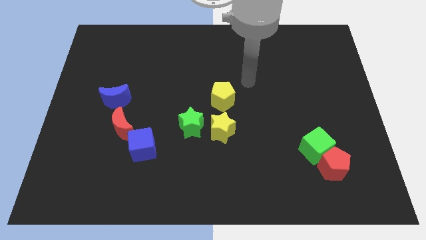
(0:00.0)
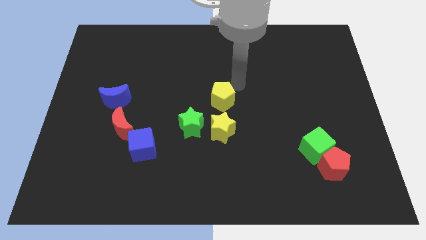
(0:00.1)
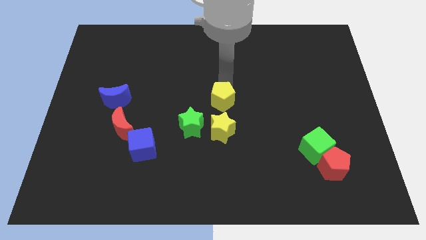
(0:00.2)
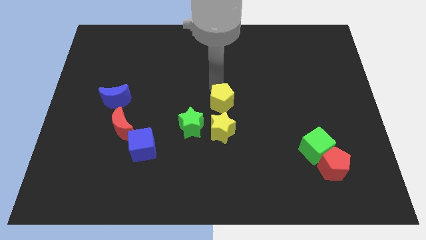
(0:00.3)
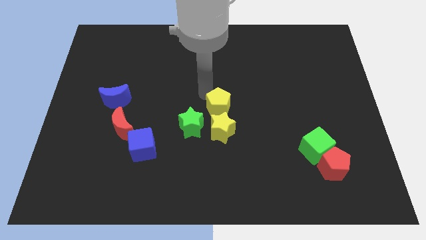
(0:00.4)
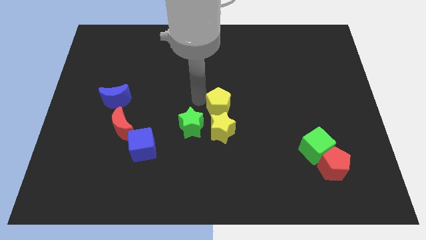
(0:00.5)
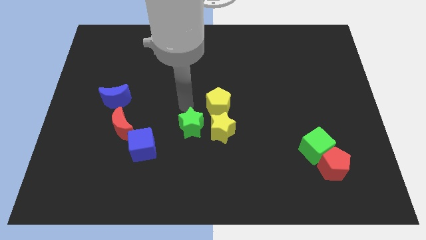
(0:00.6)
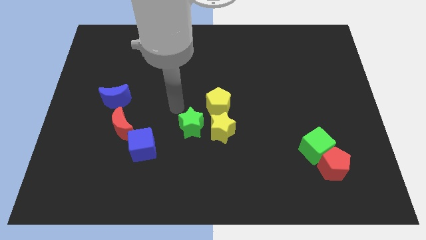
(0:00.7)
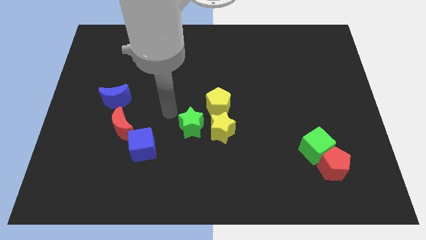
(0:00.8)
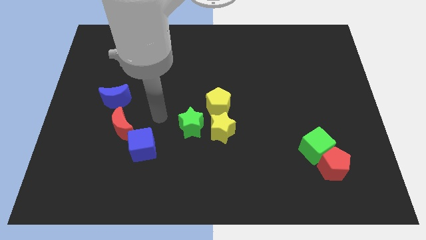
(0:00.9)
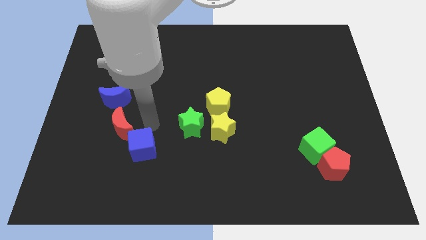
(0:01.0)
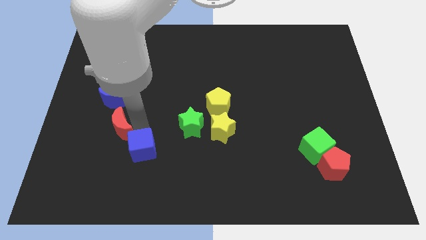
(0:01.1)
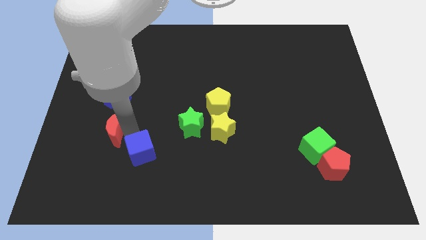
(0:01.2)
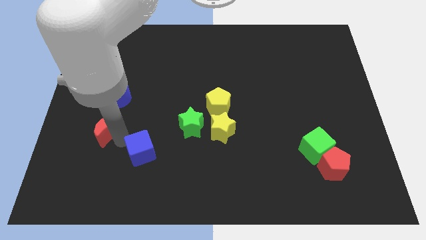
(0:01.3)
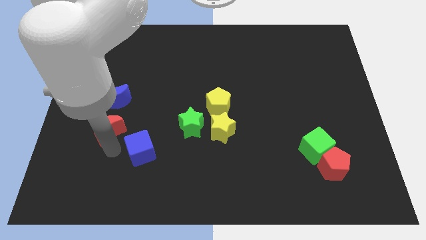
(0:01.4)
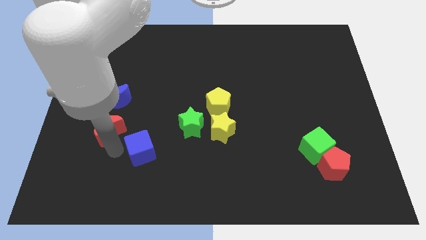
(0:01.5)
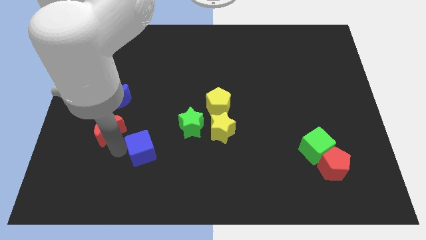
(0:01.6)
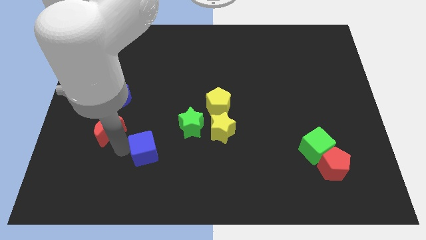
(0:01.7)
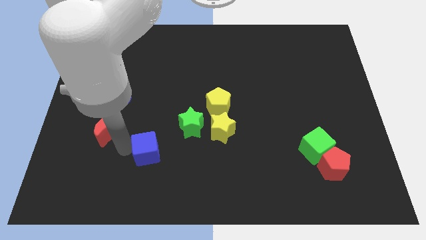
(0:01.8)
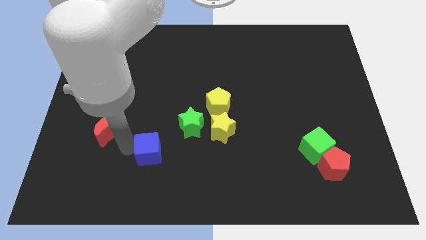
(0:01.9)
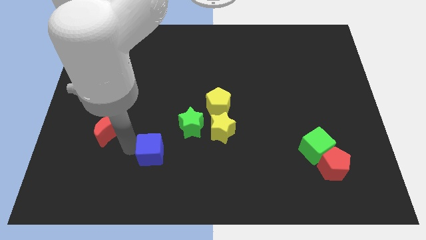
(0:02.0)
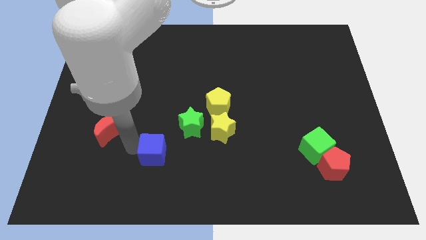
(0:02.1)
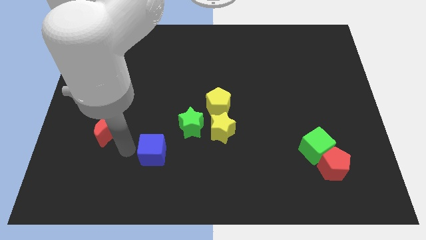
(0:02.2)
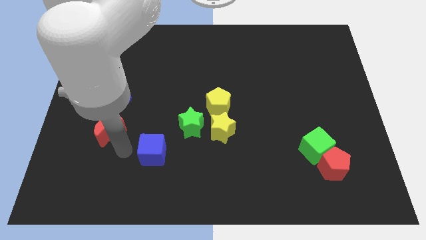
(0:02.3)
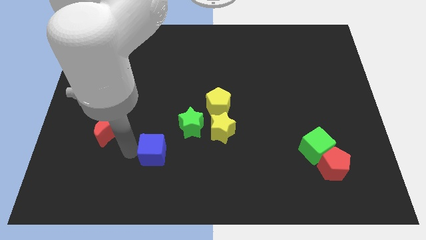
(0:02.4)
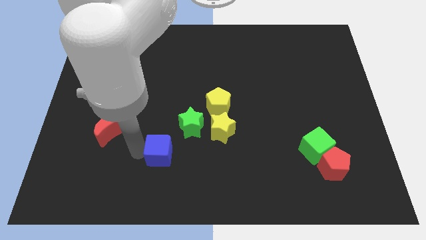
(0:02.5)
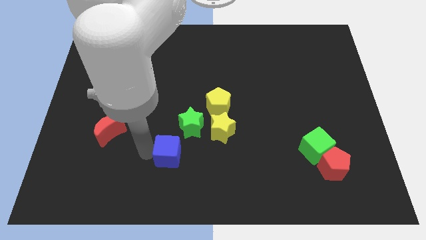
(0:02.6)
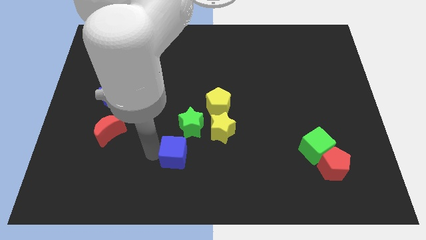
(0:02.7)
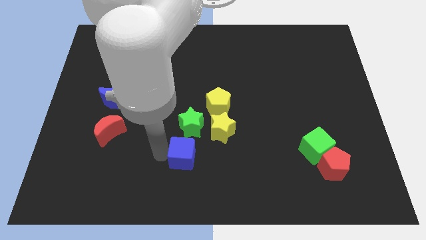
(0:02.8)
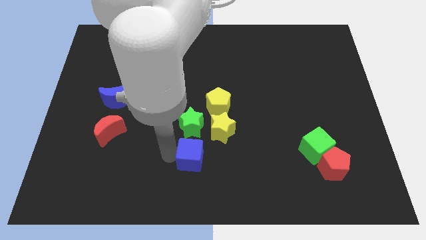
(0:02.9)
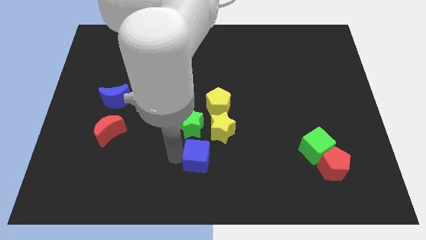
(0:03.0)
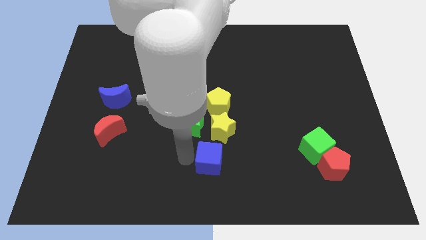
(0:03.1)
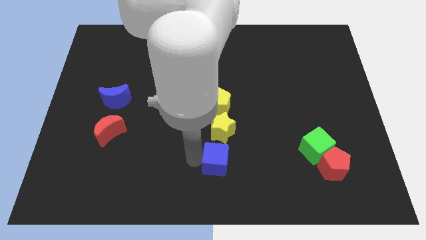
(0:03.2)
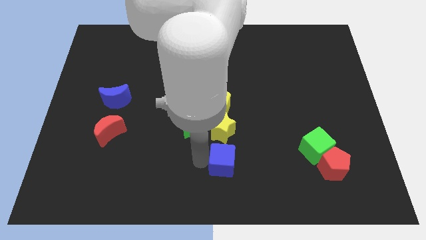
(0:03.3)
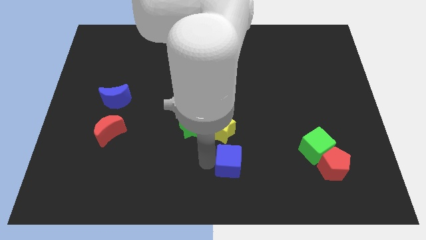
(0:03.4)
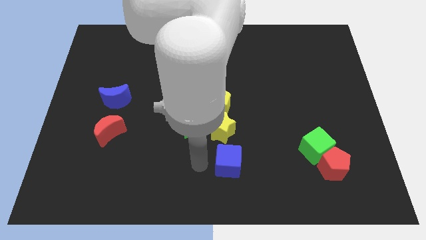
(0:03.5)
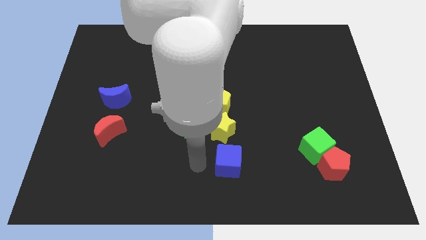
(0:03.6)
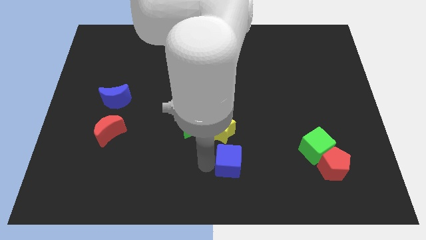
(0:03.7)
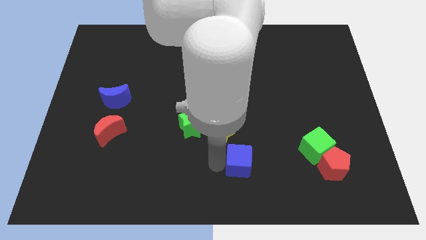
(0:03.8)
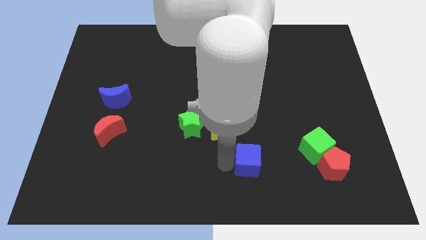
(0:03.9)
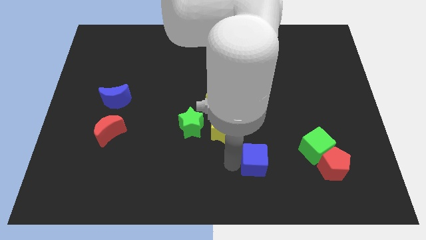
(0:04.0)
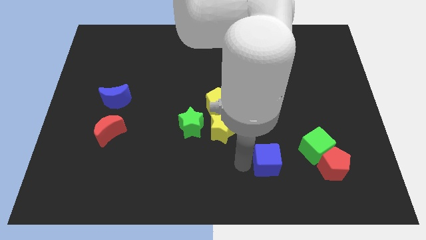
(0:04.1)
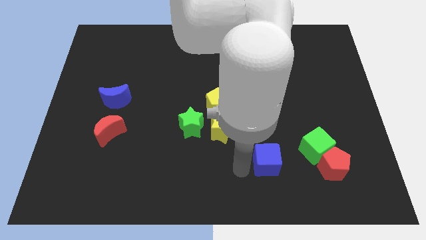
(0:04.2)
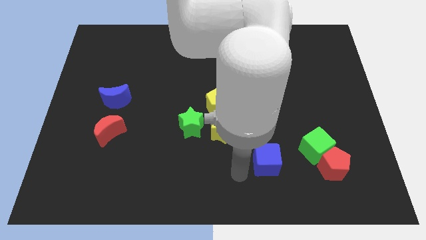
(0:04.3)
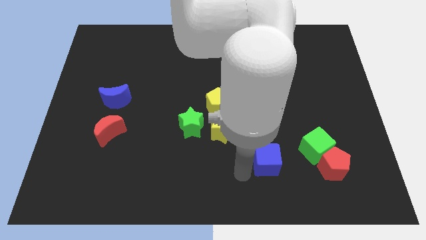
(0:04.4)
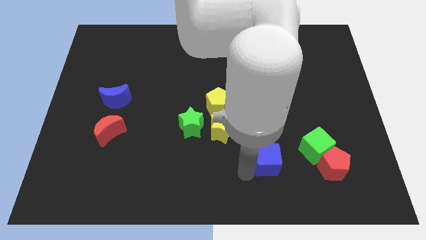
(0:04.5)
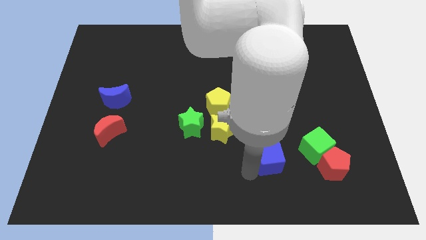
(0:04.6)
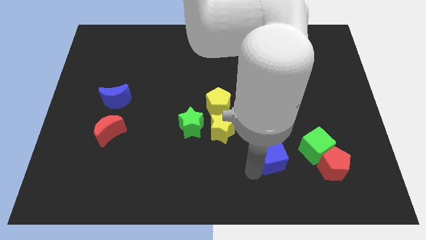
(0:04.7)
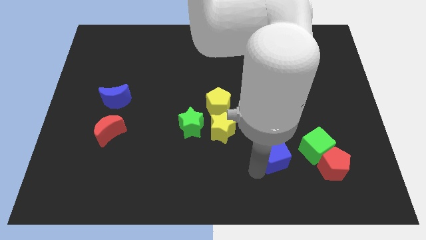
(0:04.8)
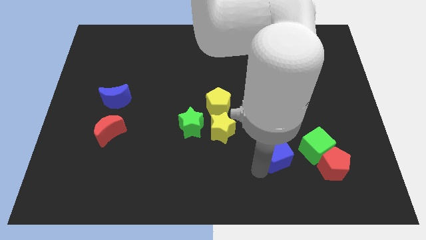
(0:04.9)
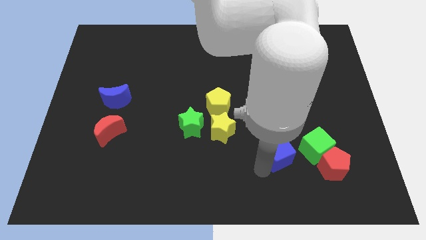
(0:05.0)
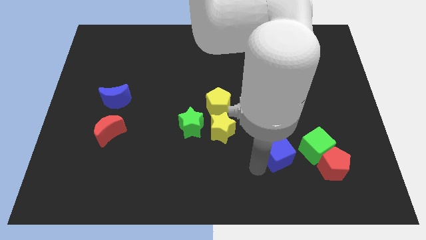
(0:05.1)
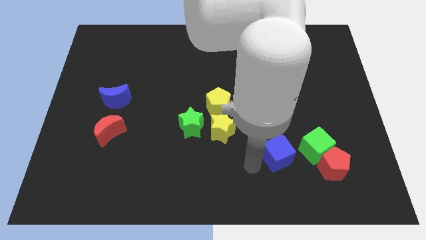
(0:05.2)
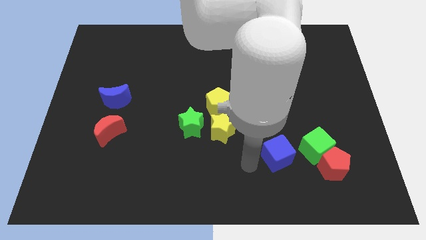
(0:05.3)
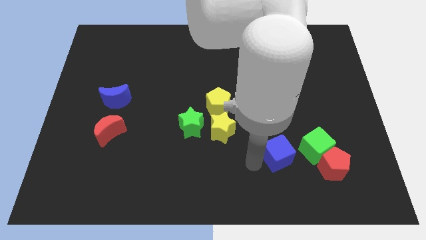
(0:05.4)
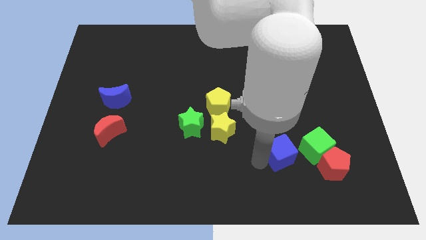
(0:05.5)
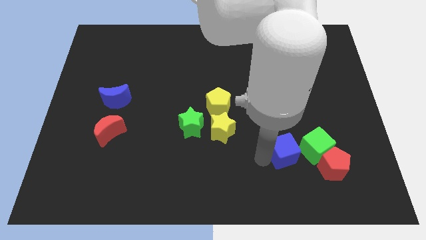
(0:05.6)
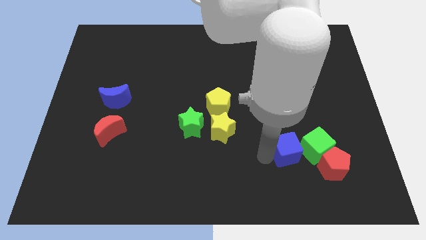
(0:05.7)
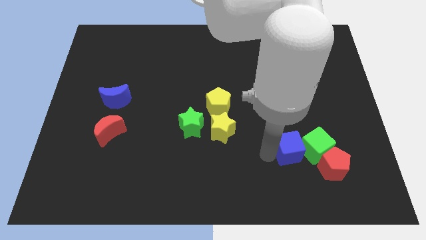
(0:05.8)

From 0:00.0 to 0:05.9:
slide the blue cube towards the green cube
